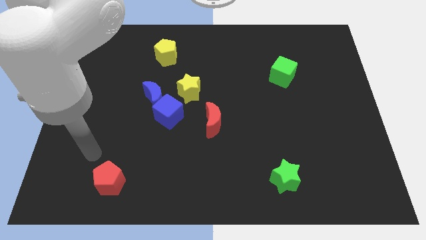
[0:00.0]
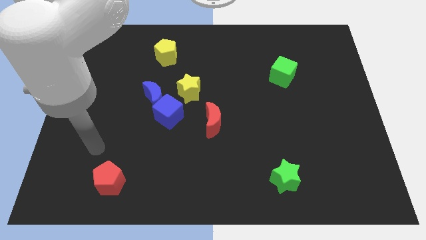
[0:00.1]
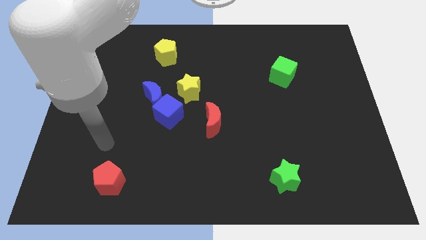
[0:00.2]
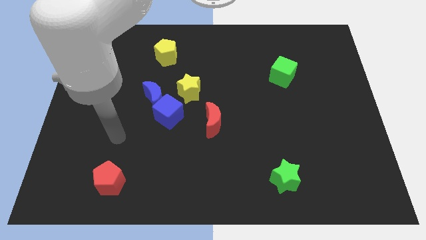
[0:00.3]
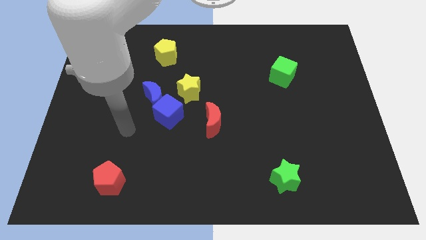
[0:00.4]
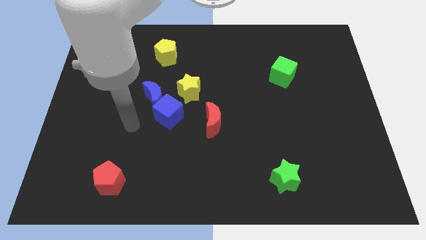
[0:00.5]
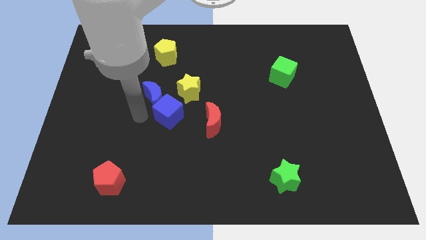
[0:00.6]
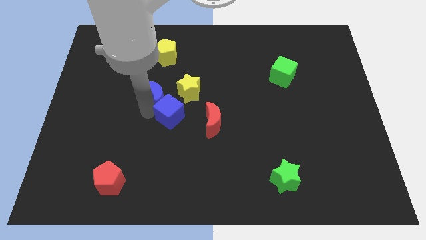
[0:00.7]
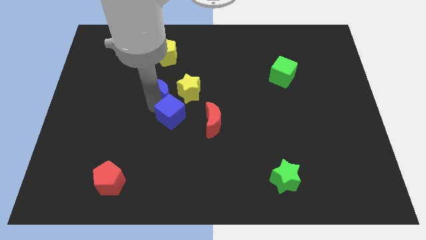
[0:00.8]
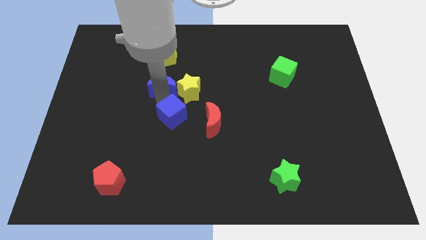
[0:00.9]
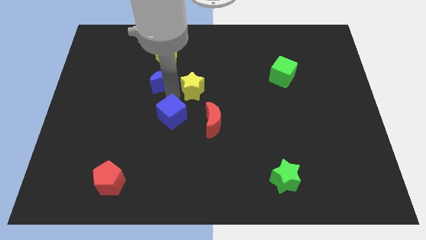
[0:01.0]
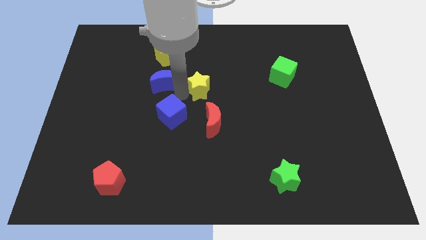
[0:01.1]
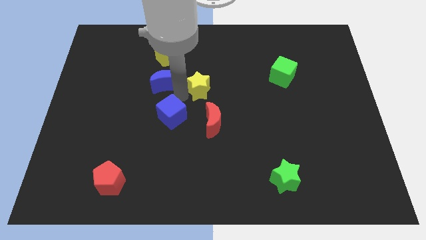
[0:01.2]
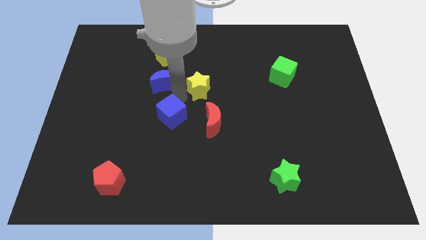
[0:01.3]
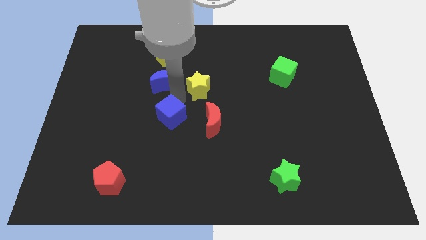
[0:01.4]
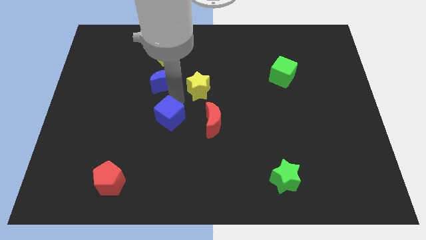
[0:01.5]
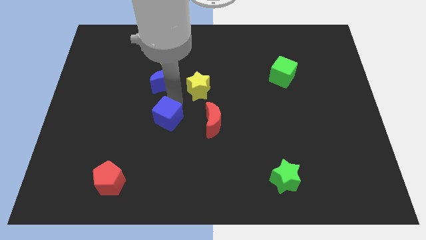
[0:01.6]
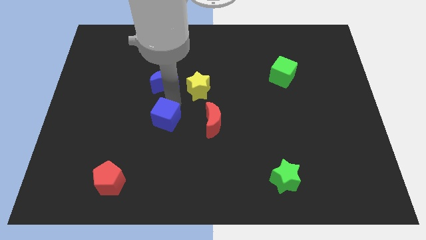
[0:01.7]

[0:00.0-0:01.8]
separate the blue cube from the blue moon and yellow star

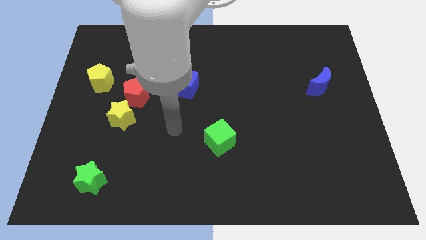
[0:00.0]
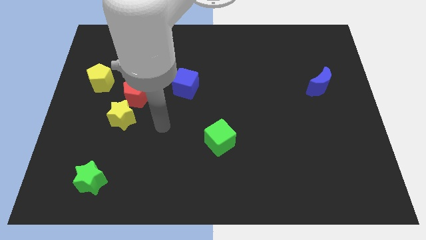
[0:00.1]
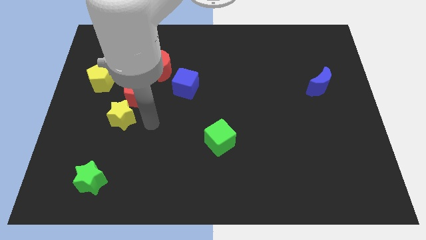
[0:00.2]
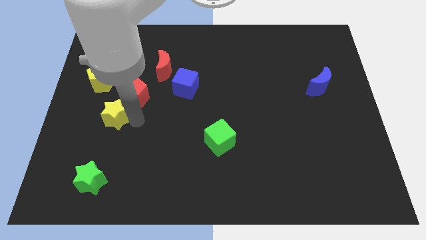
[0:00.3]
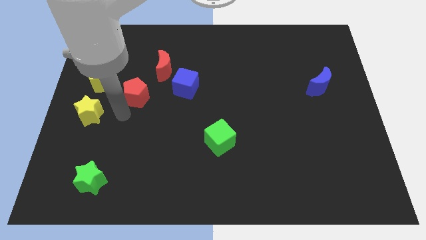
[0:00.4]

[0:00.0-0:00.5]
separate the red pentagon from the yellow star

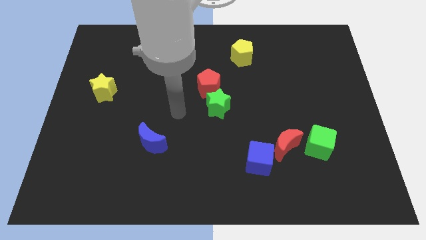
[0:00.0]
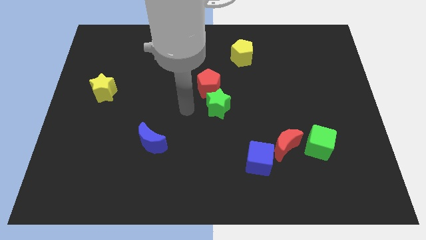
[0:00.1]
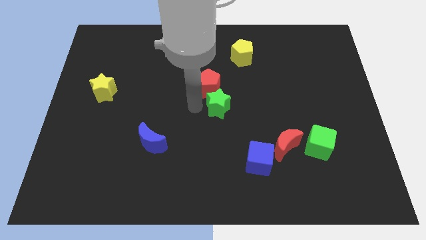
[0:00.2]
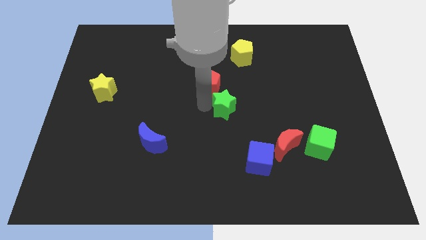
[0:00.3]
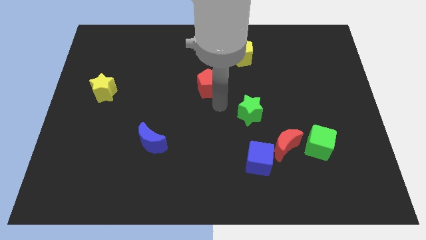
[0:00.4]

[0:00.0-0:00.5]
pull the red pentagon apart from the green star

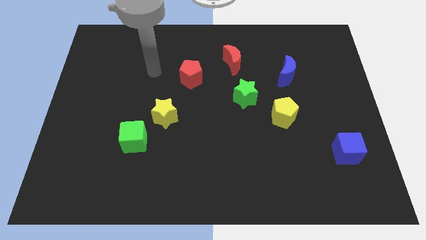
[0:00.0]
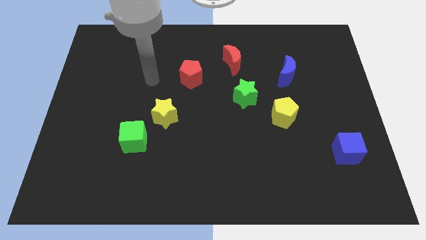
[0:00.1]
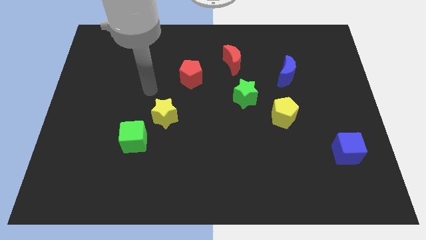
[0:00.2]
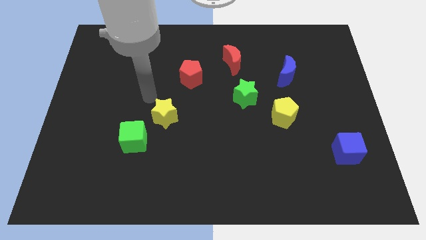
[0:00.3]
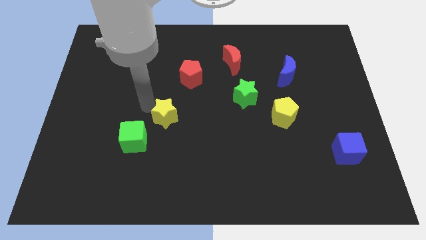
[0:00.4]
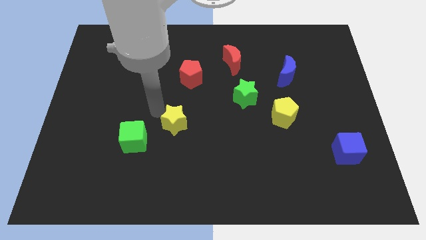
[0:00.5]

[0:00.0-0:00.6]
pull the green cube apart from the yellow star

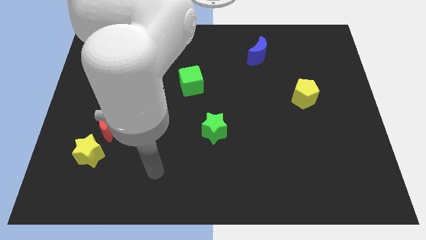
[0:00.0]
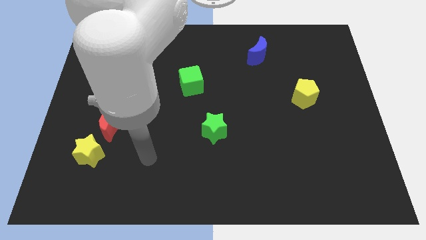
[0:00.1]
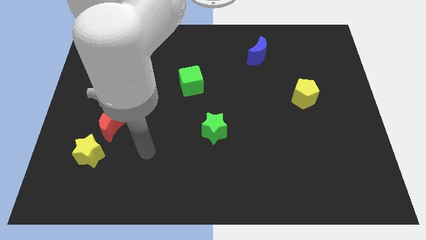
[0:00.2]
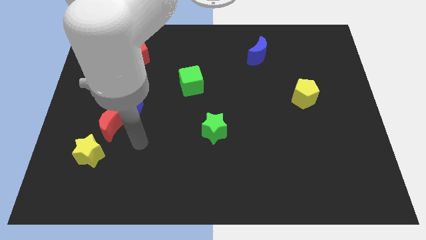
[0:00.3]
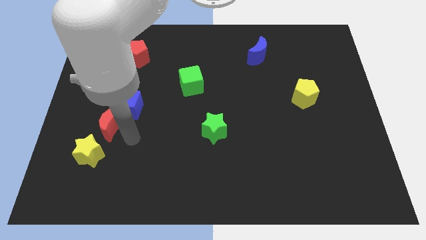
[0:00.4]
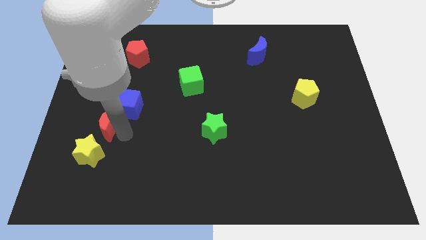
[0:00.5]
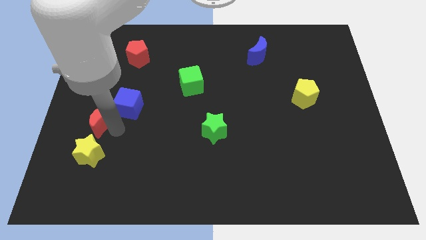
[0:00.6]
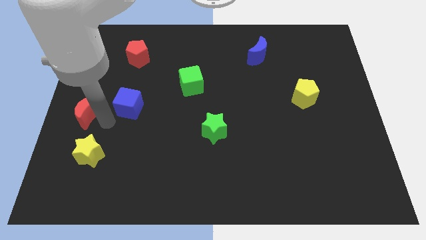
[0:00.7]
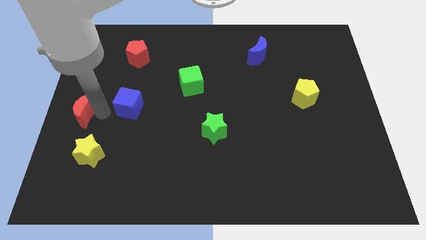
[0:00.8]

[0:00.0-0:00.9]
pull the blue cube apart from the red moon

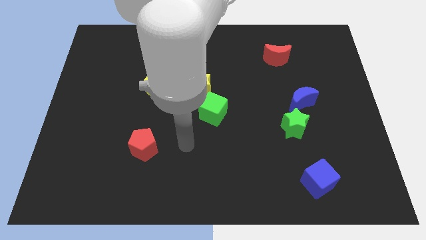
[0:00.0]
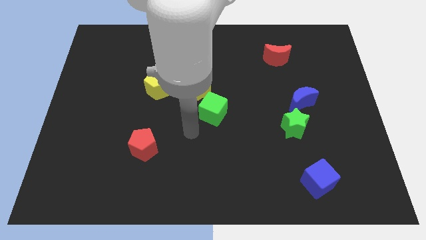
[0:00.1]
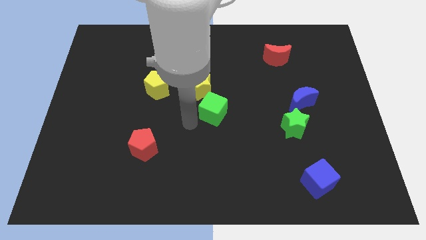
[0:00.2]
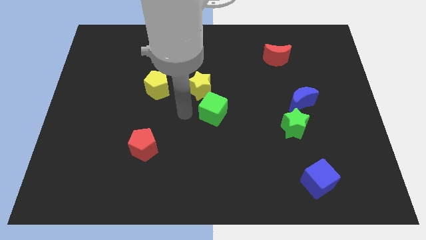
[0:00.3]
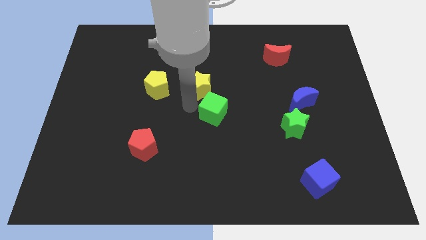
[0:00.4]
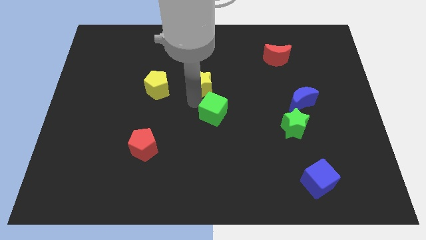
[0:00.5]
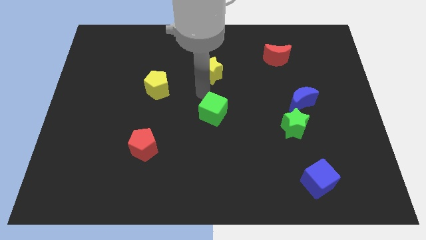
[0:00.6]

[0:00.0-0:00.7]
separate the green cube from the yellow star

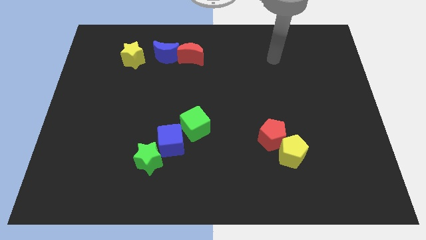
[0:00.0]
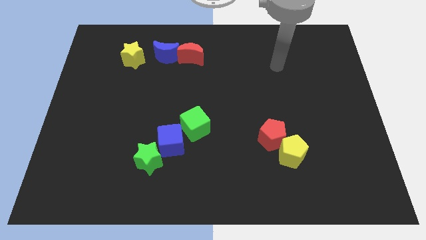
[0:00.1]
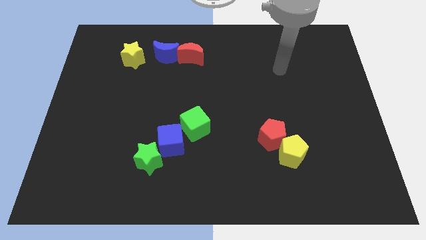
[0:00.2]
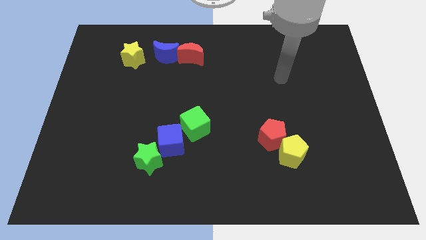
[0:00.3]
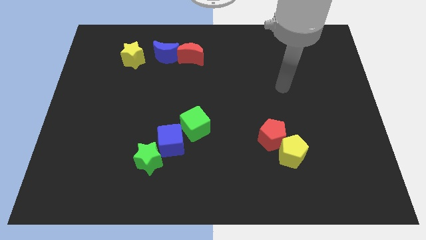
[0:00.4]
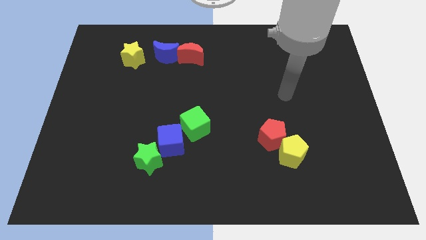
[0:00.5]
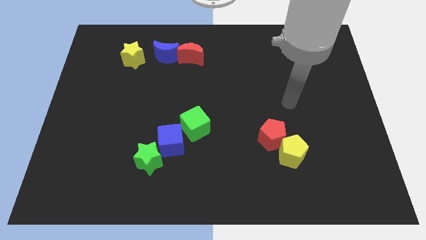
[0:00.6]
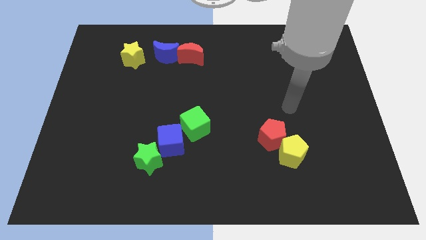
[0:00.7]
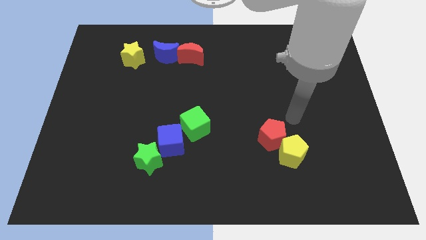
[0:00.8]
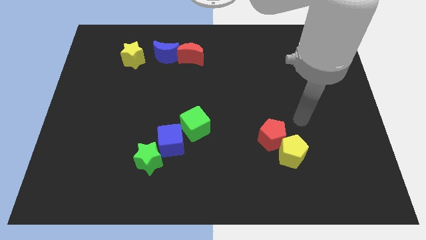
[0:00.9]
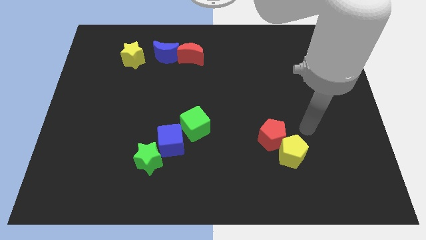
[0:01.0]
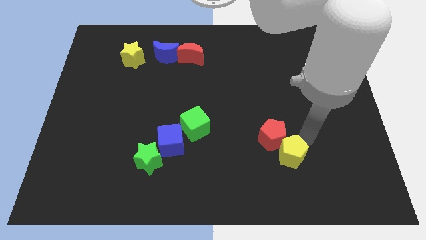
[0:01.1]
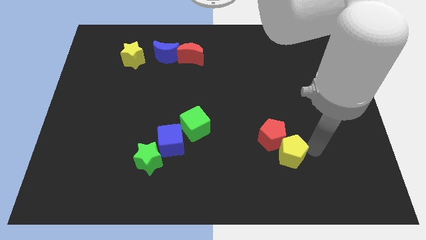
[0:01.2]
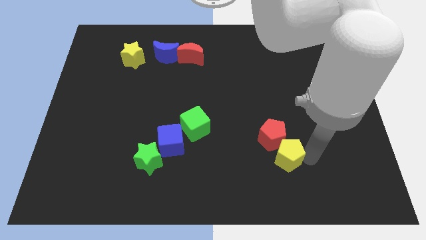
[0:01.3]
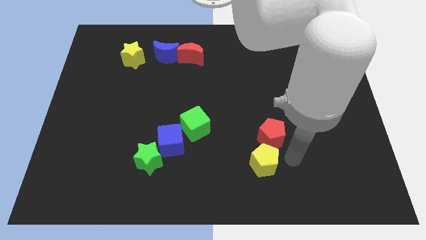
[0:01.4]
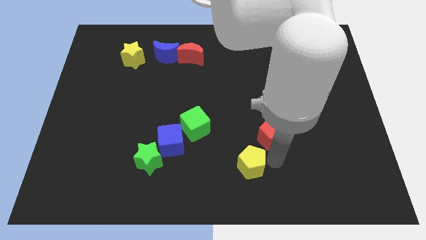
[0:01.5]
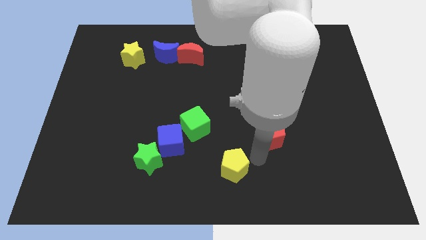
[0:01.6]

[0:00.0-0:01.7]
pull the red pentagon apart from the yellow pentagon

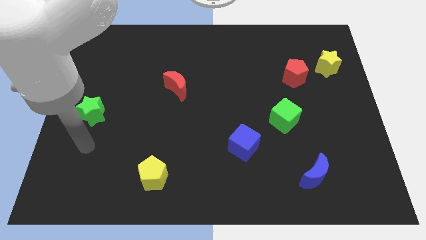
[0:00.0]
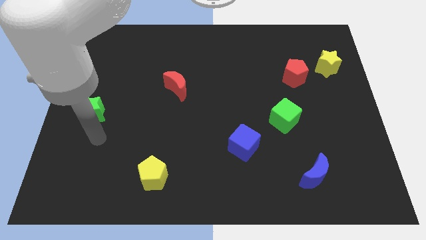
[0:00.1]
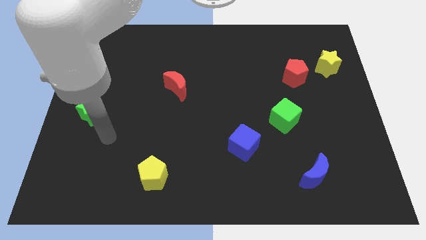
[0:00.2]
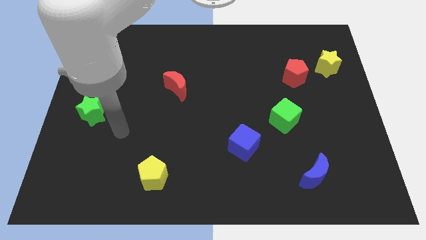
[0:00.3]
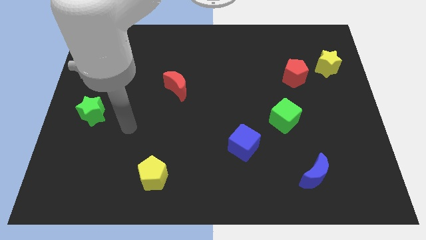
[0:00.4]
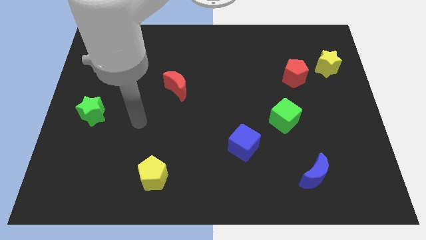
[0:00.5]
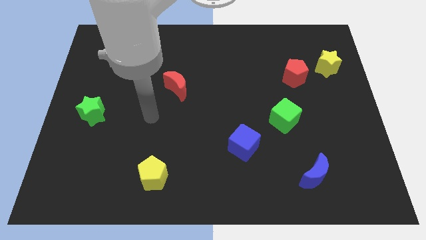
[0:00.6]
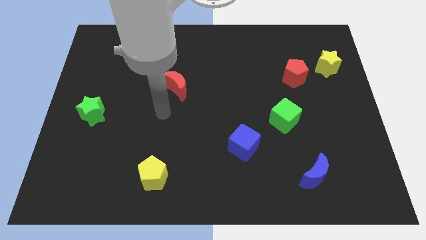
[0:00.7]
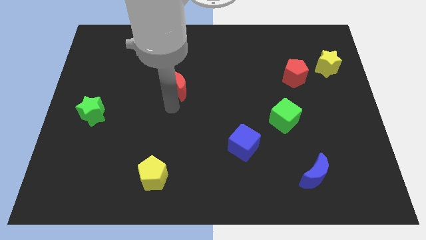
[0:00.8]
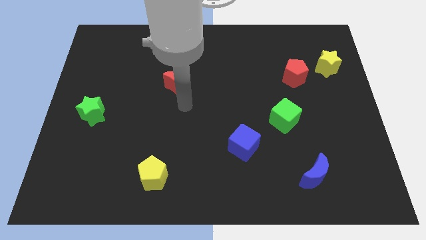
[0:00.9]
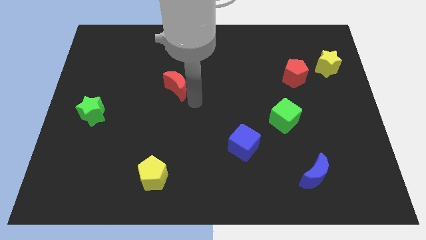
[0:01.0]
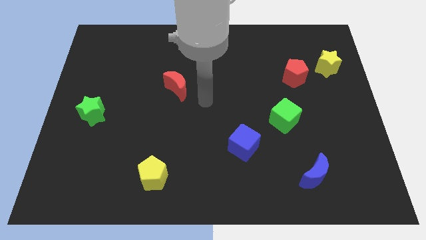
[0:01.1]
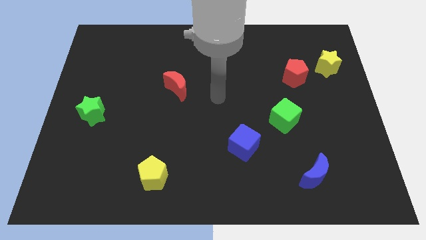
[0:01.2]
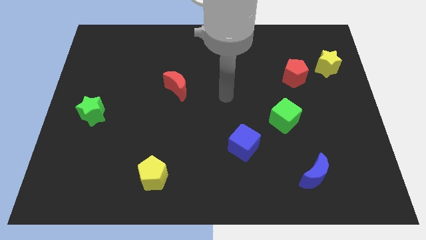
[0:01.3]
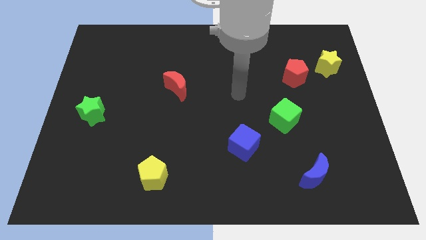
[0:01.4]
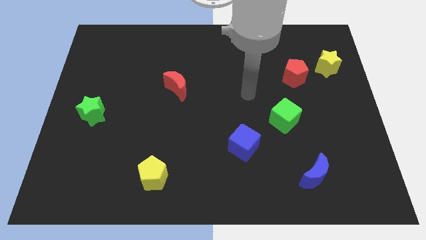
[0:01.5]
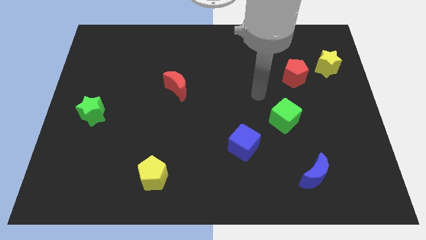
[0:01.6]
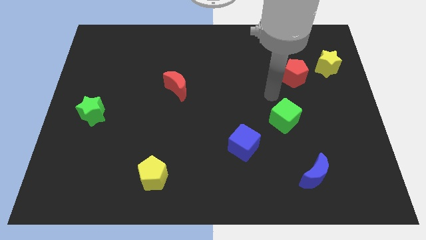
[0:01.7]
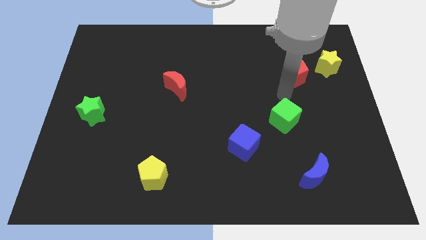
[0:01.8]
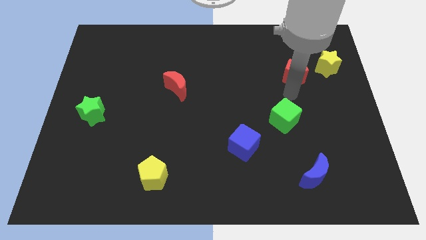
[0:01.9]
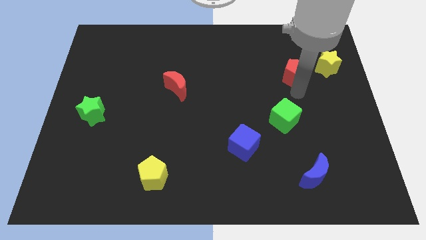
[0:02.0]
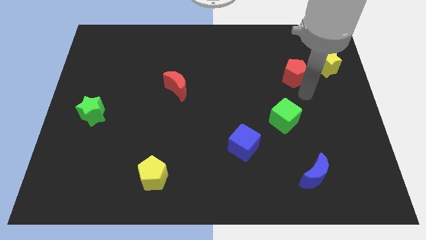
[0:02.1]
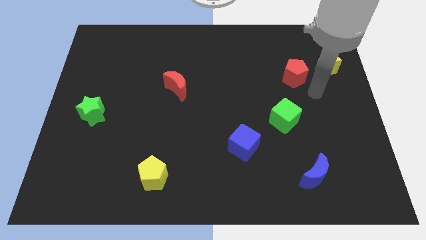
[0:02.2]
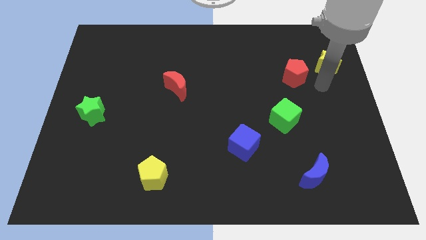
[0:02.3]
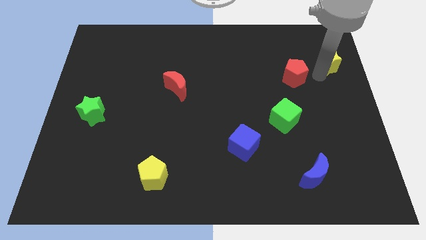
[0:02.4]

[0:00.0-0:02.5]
pull the red pentagon apart from the yellow star
